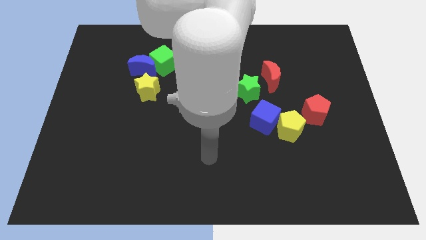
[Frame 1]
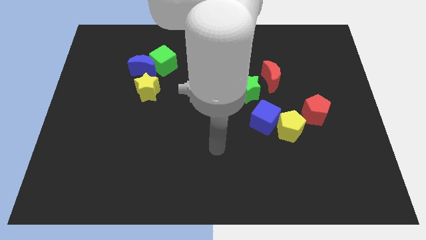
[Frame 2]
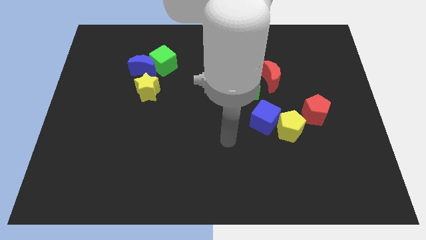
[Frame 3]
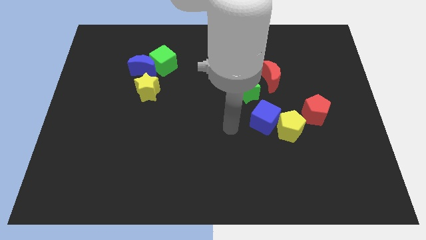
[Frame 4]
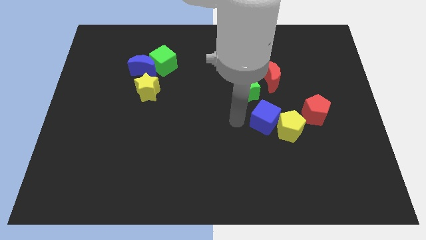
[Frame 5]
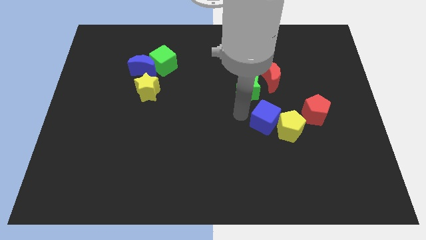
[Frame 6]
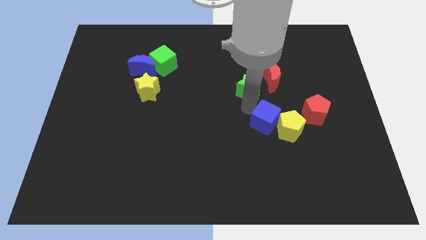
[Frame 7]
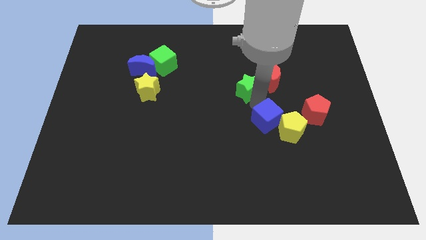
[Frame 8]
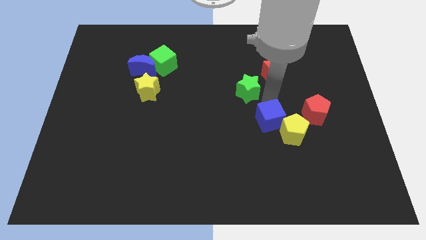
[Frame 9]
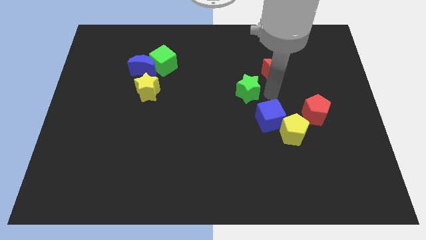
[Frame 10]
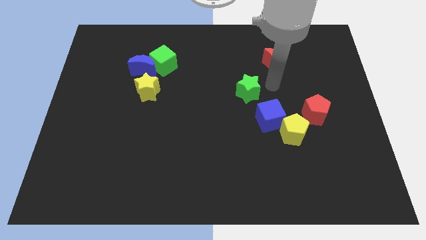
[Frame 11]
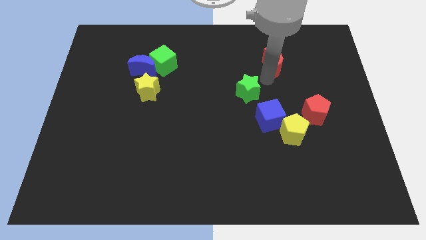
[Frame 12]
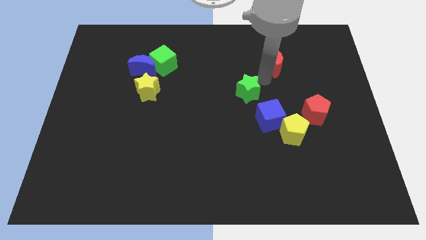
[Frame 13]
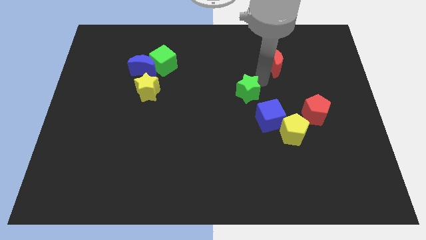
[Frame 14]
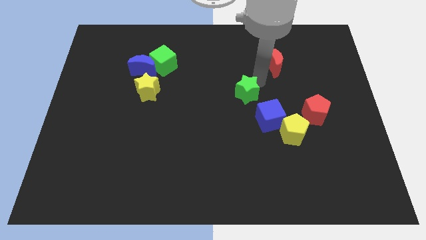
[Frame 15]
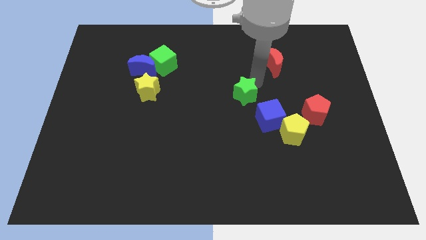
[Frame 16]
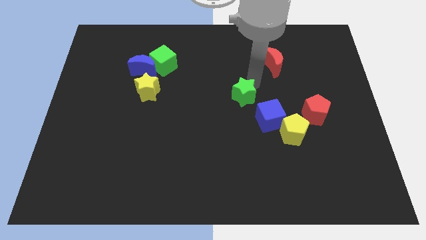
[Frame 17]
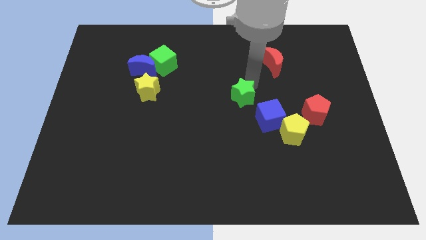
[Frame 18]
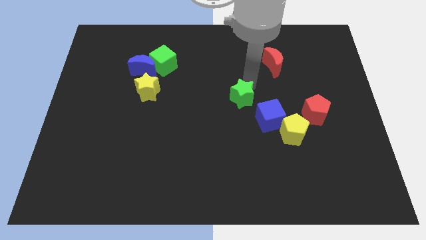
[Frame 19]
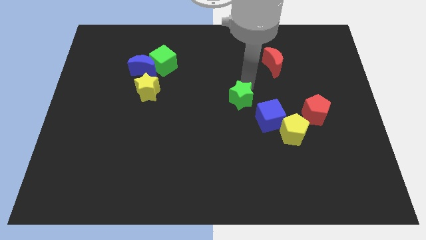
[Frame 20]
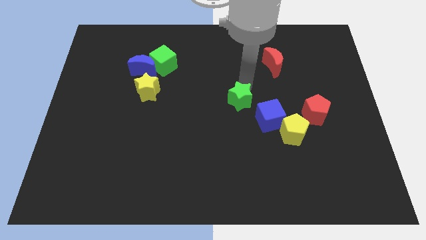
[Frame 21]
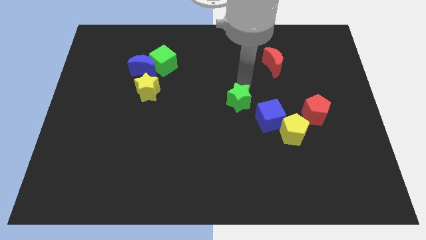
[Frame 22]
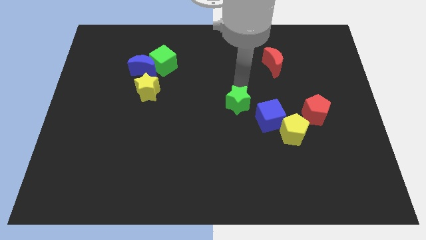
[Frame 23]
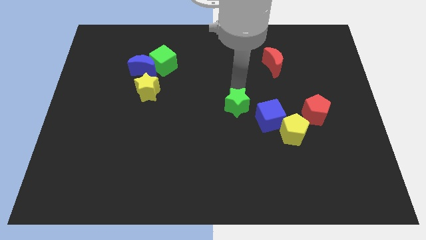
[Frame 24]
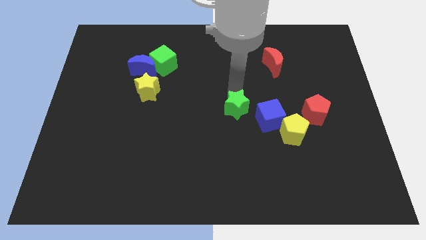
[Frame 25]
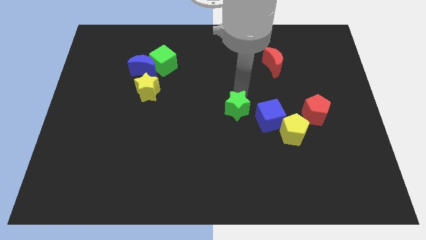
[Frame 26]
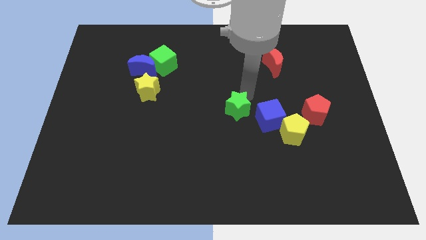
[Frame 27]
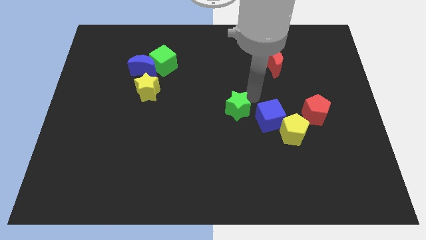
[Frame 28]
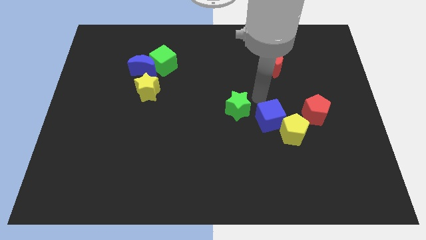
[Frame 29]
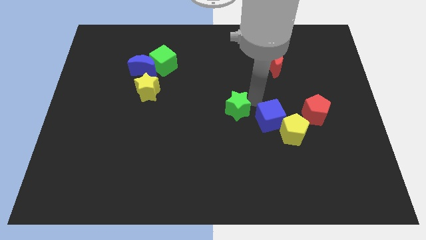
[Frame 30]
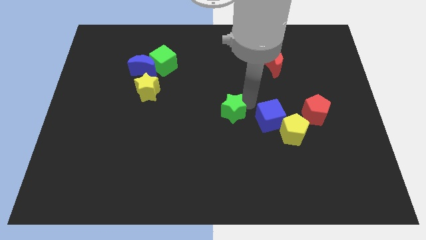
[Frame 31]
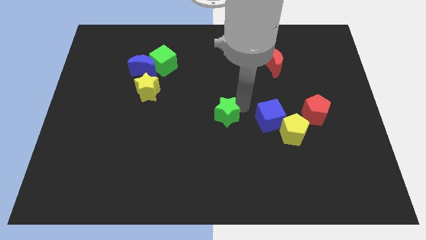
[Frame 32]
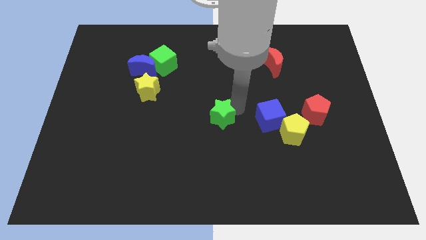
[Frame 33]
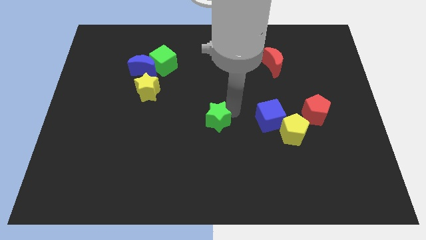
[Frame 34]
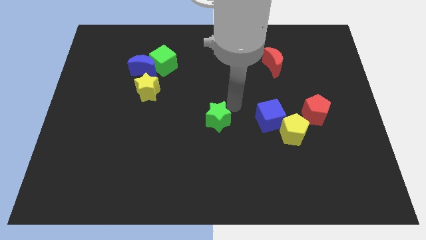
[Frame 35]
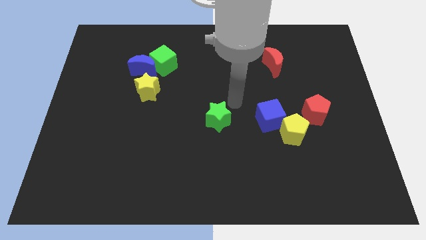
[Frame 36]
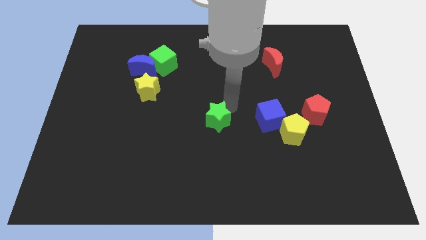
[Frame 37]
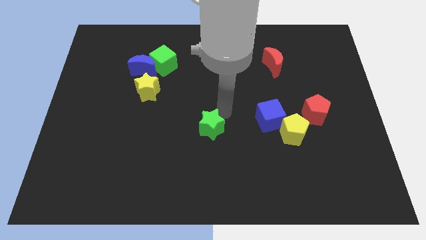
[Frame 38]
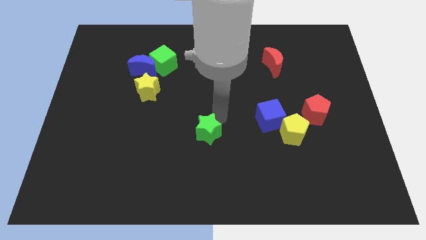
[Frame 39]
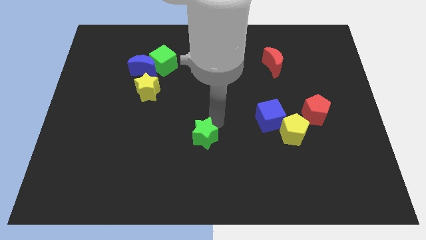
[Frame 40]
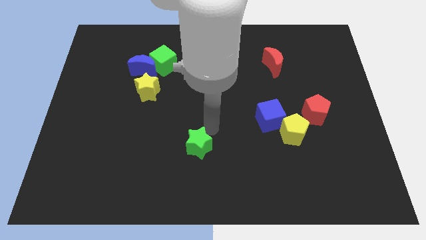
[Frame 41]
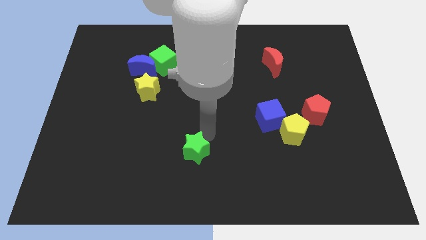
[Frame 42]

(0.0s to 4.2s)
move the green star down and then to the left

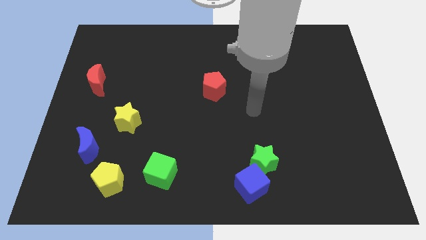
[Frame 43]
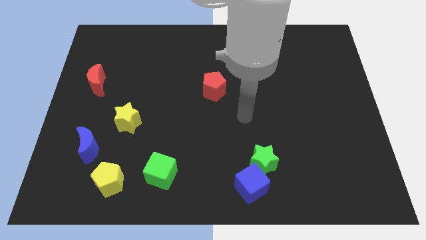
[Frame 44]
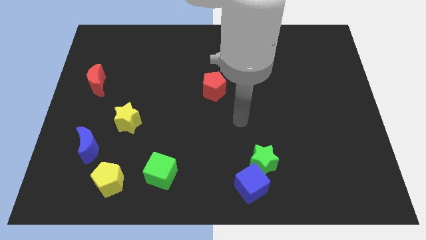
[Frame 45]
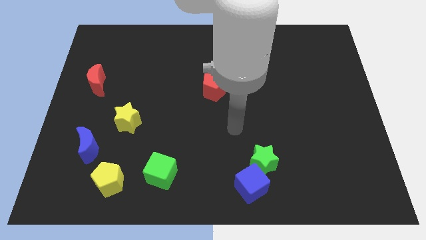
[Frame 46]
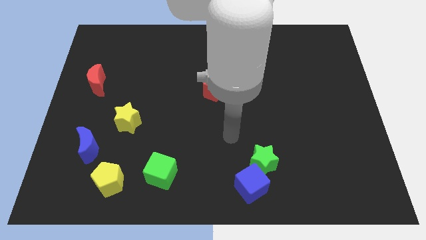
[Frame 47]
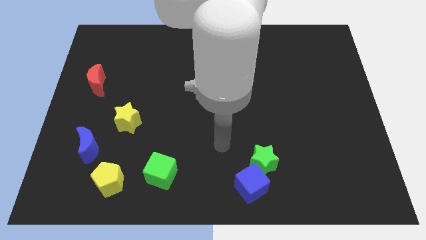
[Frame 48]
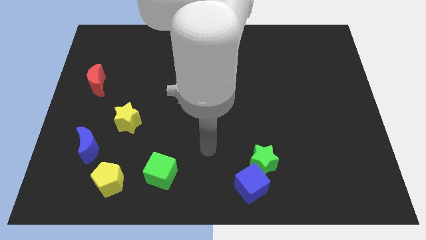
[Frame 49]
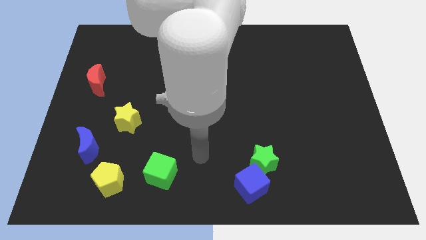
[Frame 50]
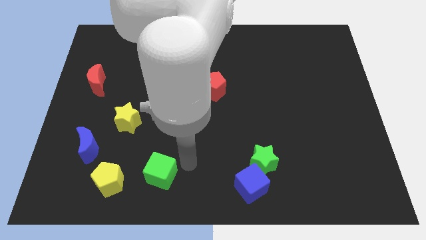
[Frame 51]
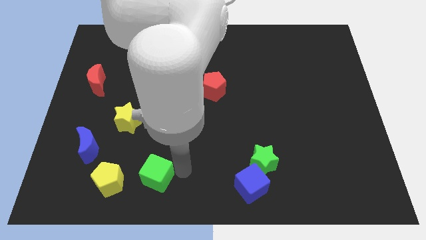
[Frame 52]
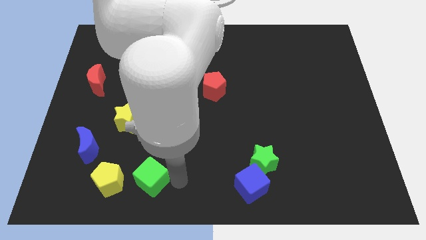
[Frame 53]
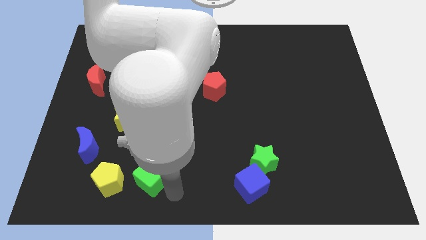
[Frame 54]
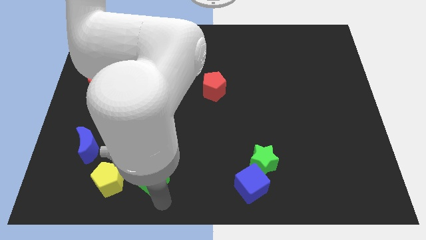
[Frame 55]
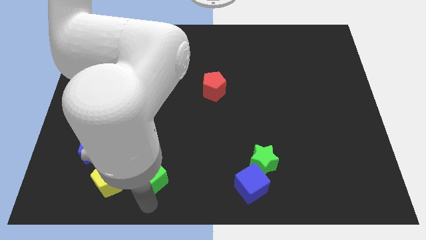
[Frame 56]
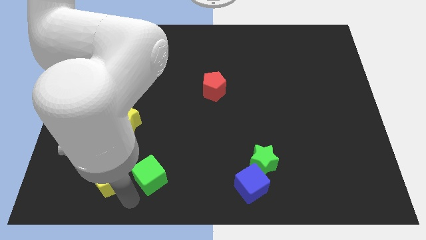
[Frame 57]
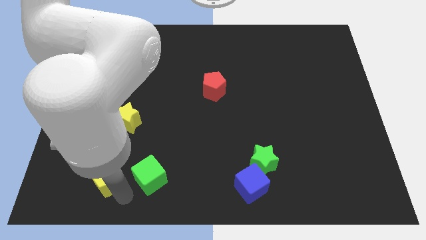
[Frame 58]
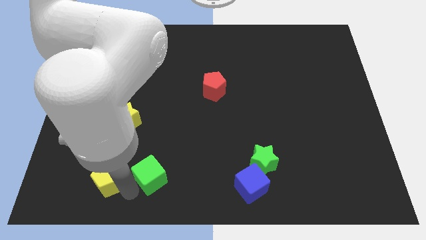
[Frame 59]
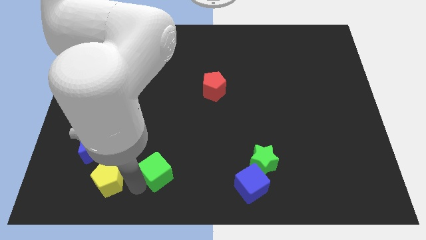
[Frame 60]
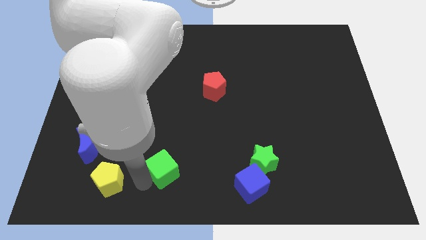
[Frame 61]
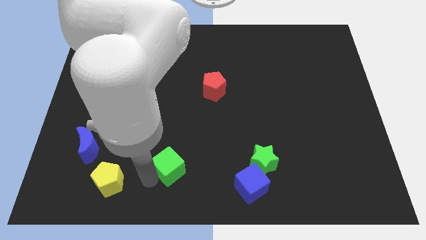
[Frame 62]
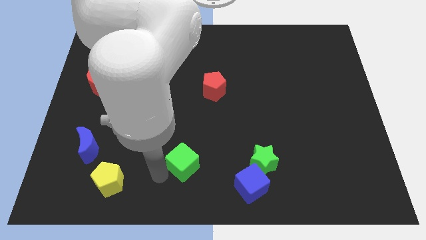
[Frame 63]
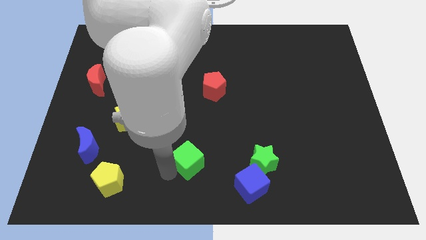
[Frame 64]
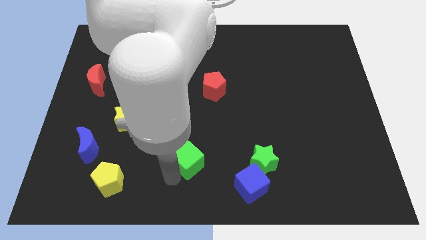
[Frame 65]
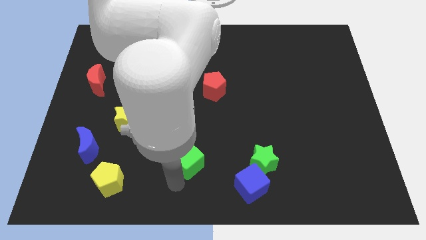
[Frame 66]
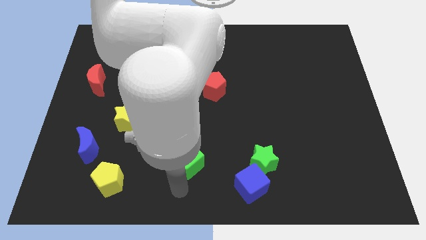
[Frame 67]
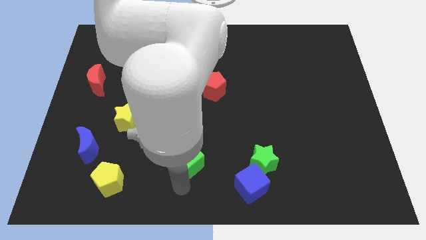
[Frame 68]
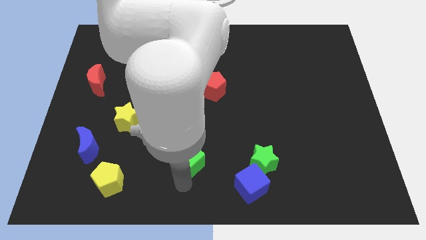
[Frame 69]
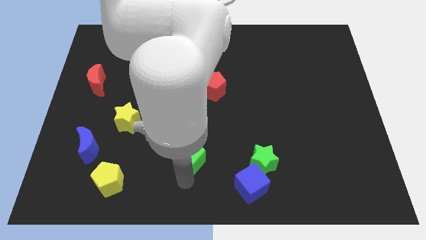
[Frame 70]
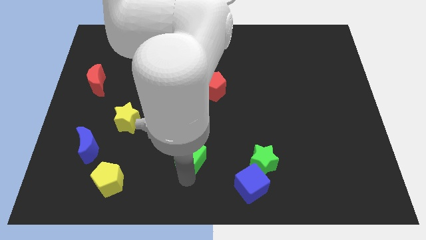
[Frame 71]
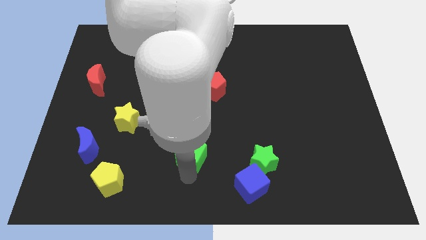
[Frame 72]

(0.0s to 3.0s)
slightly push the green cube up and right

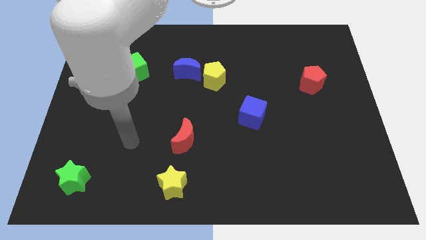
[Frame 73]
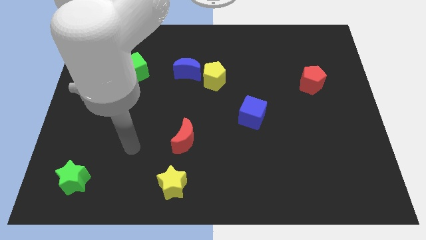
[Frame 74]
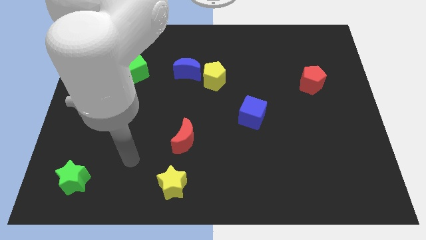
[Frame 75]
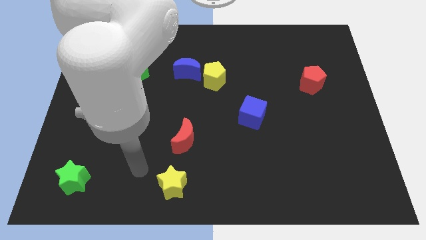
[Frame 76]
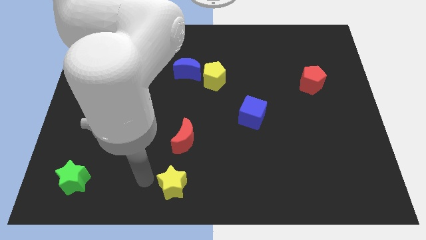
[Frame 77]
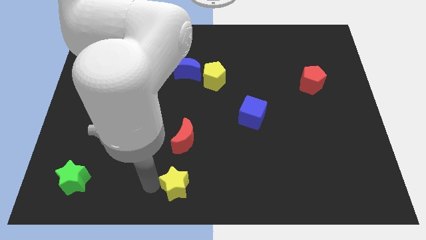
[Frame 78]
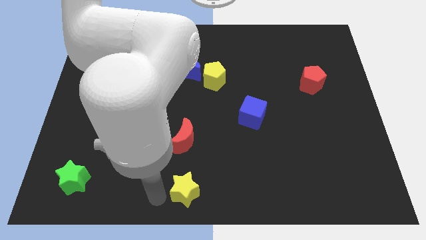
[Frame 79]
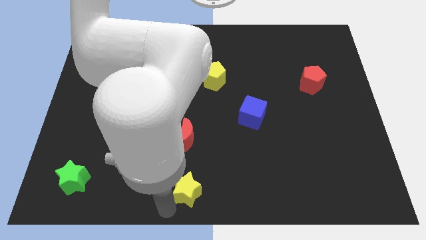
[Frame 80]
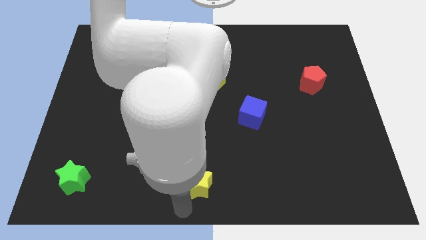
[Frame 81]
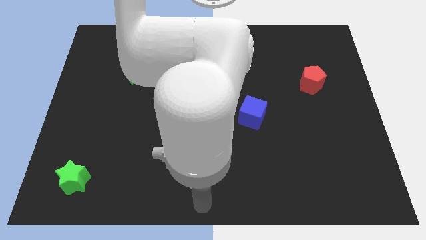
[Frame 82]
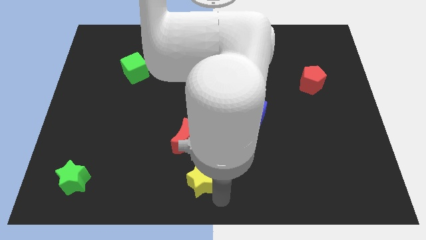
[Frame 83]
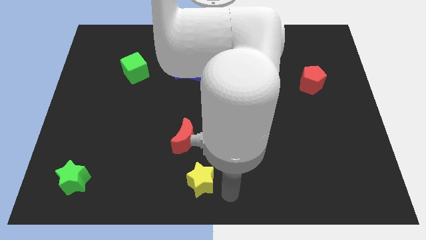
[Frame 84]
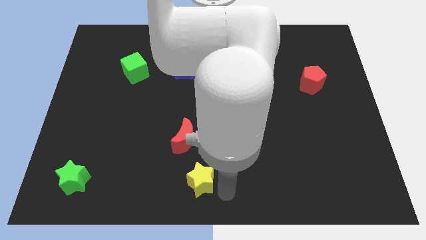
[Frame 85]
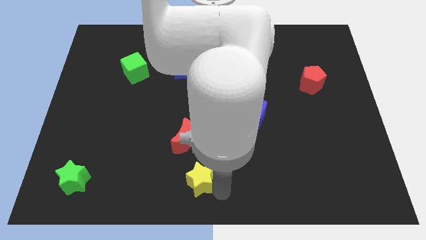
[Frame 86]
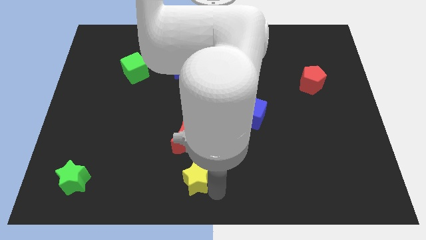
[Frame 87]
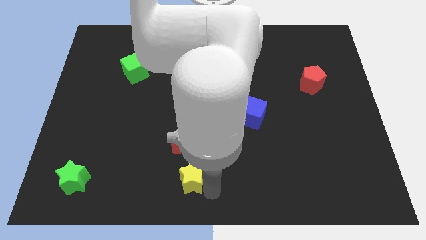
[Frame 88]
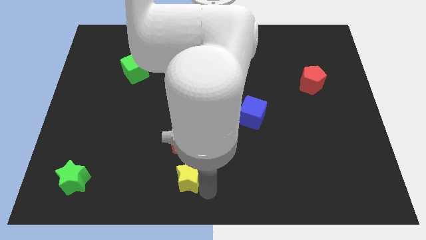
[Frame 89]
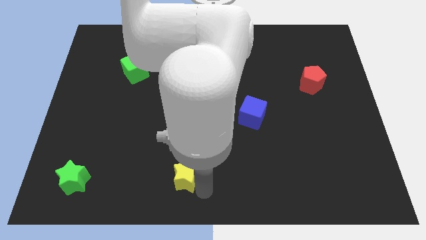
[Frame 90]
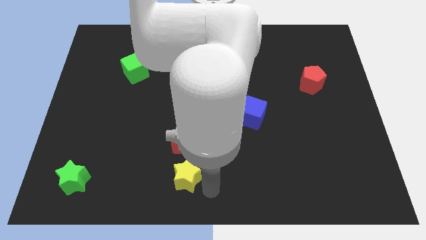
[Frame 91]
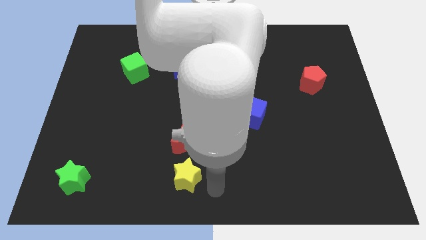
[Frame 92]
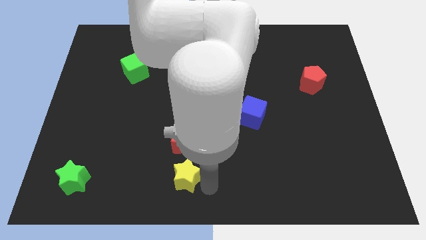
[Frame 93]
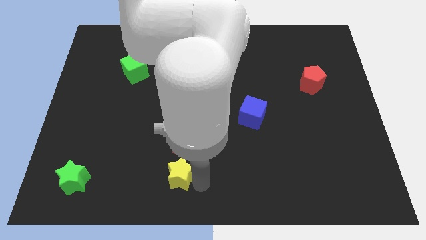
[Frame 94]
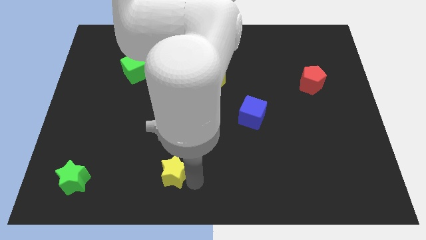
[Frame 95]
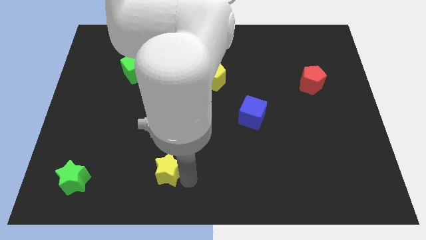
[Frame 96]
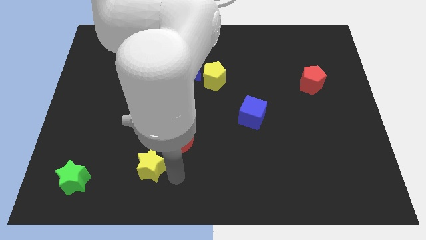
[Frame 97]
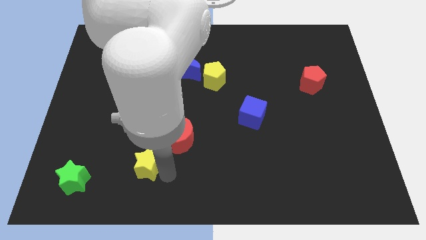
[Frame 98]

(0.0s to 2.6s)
move the yellow star up and left diagonally a bit
